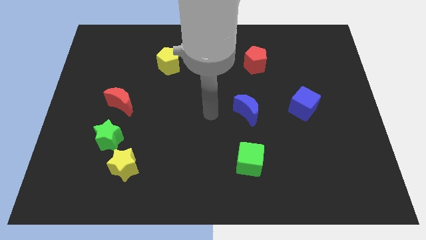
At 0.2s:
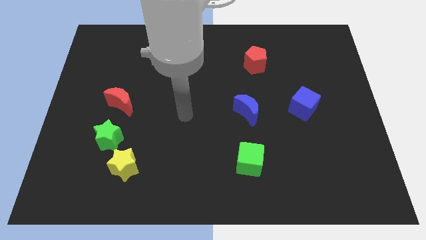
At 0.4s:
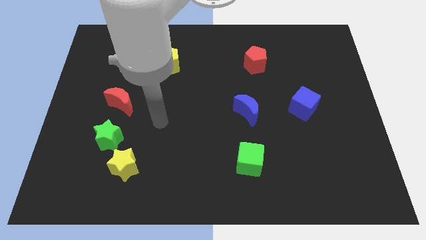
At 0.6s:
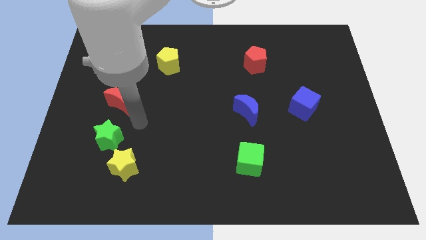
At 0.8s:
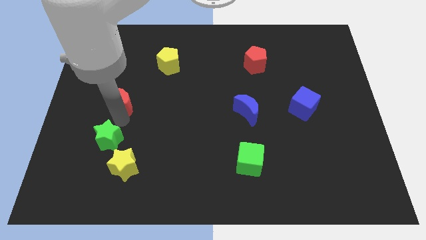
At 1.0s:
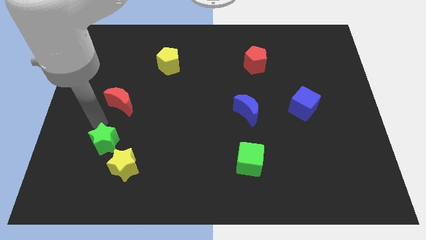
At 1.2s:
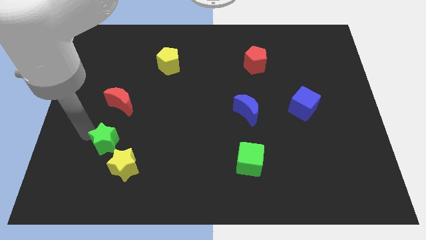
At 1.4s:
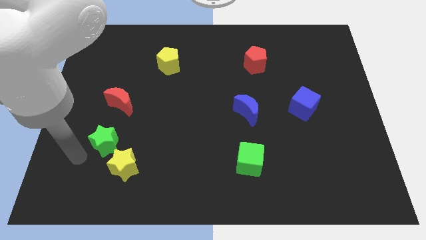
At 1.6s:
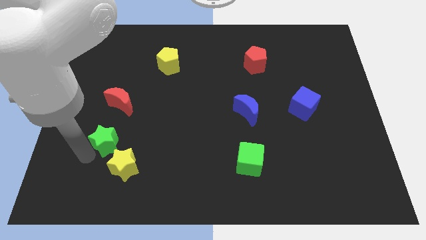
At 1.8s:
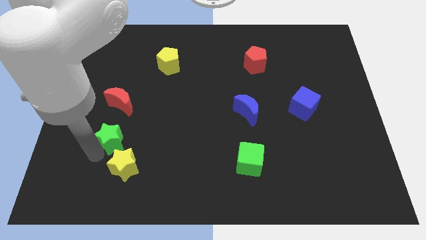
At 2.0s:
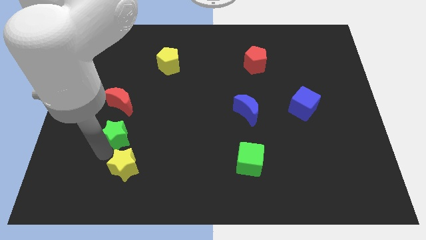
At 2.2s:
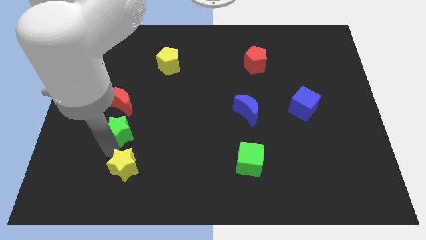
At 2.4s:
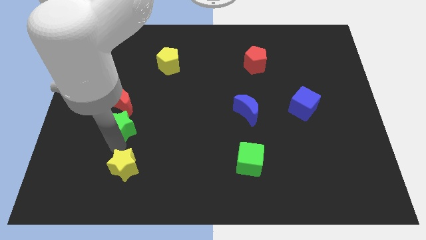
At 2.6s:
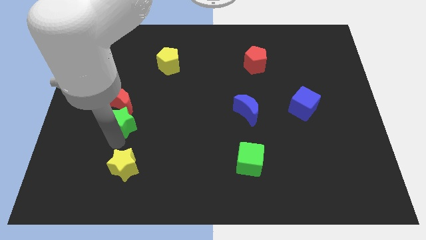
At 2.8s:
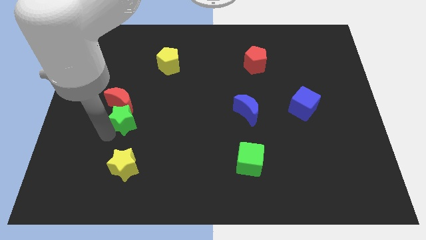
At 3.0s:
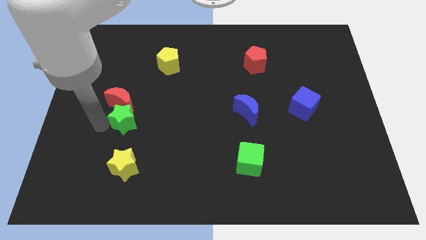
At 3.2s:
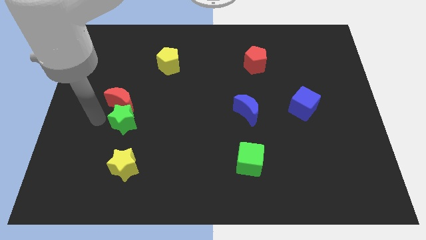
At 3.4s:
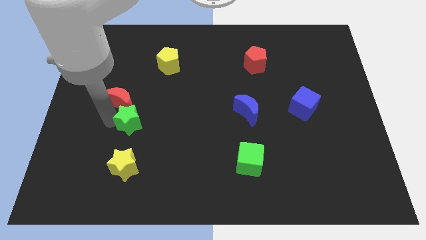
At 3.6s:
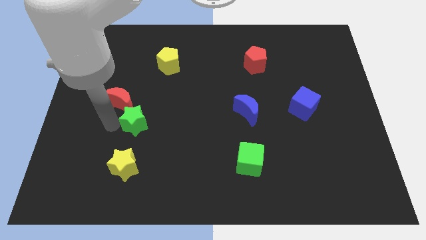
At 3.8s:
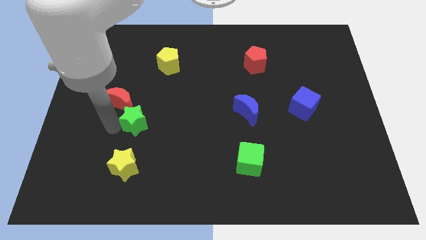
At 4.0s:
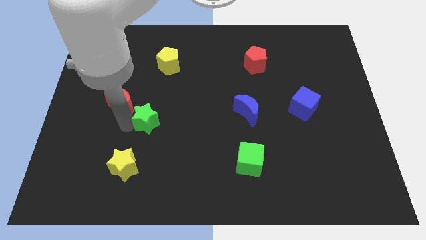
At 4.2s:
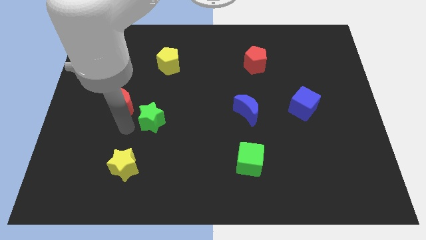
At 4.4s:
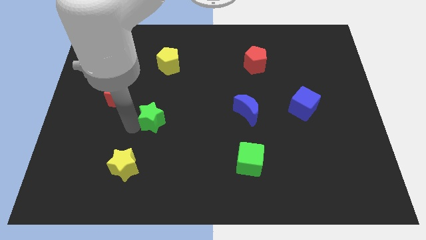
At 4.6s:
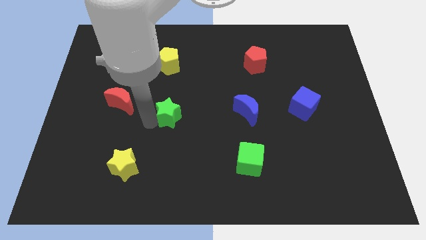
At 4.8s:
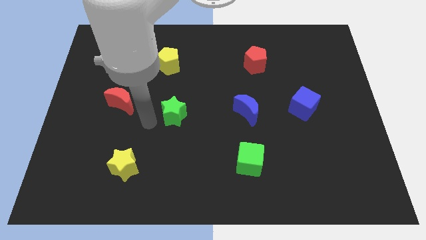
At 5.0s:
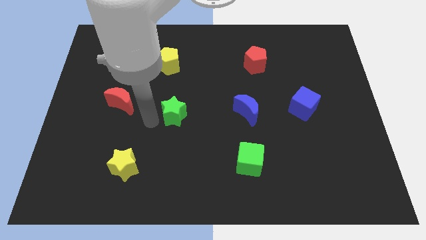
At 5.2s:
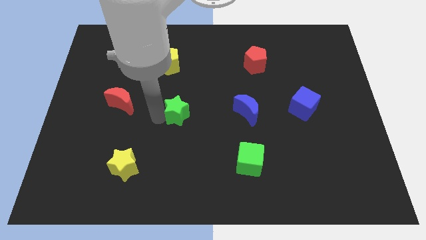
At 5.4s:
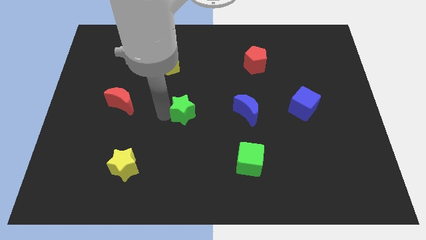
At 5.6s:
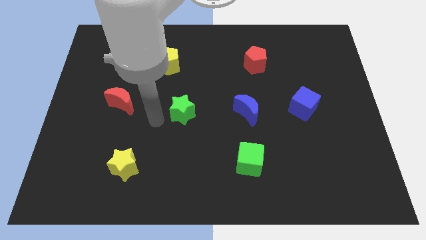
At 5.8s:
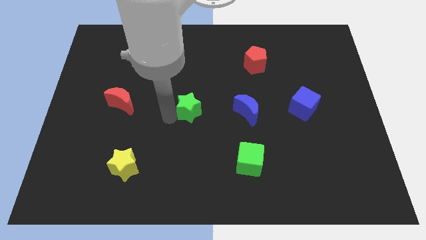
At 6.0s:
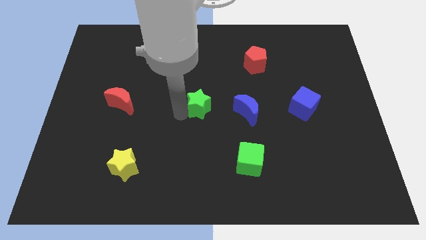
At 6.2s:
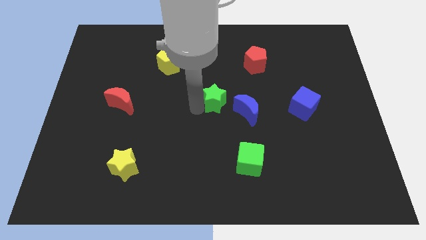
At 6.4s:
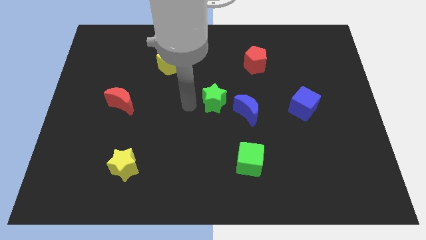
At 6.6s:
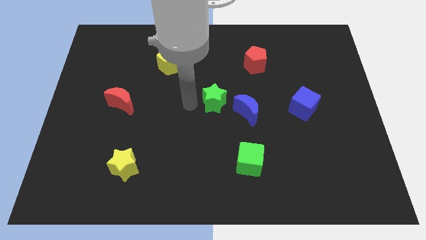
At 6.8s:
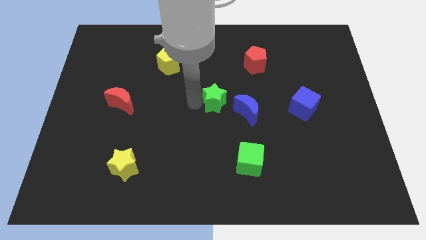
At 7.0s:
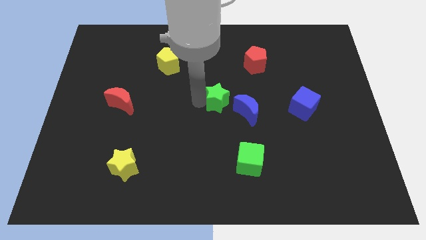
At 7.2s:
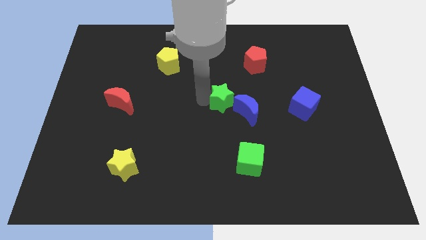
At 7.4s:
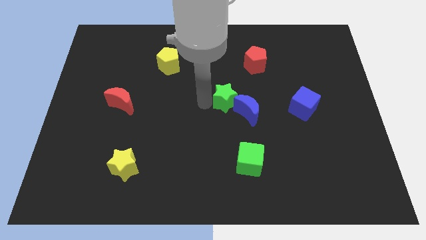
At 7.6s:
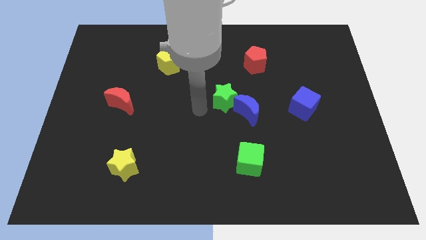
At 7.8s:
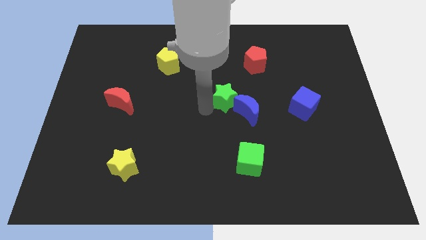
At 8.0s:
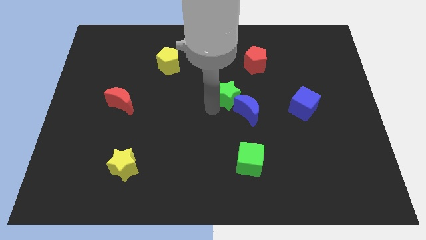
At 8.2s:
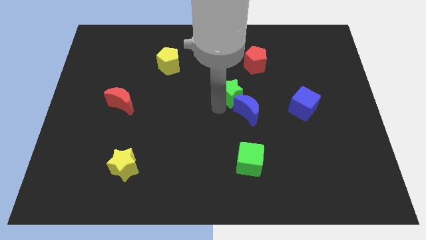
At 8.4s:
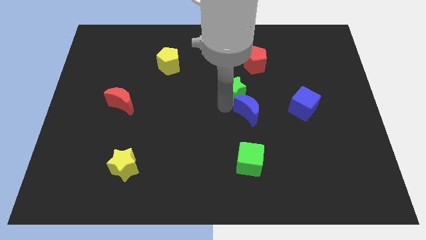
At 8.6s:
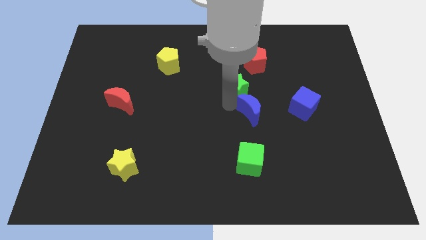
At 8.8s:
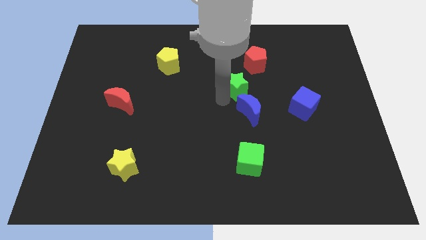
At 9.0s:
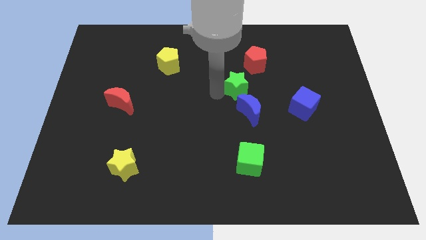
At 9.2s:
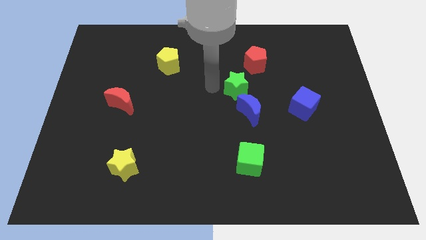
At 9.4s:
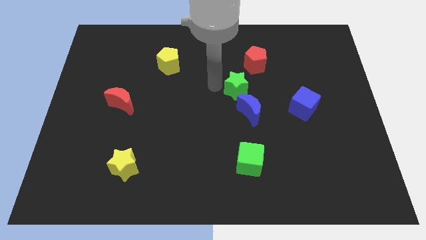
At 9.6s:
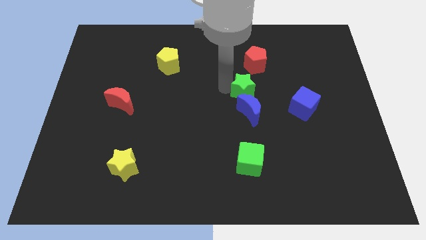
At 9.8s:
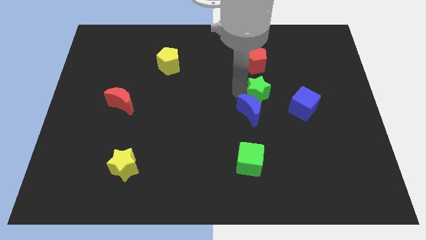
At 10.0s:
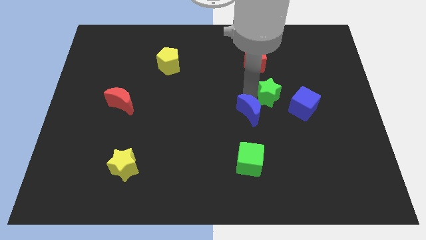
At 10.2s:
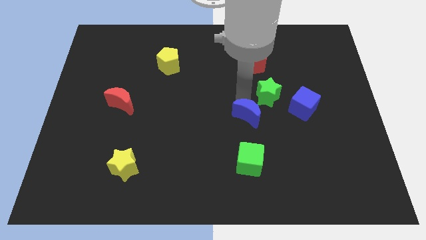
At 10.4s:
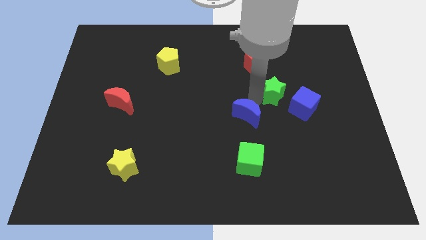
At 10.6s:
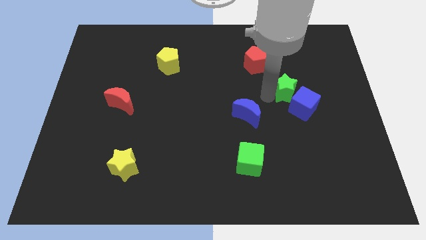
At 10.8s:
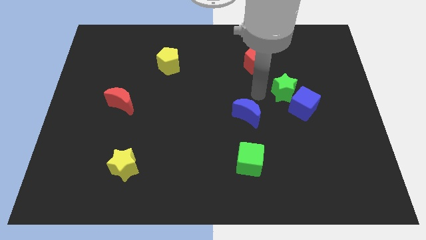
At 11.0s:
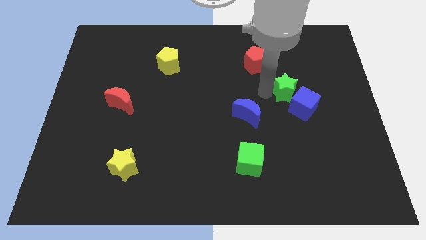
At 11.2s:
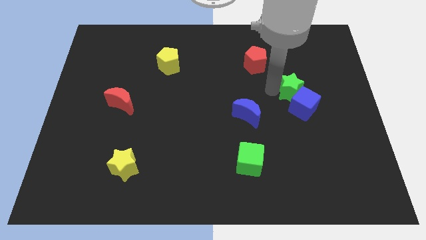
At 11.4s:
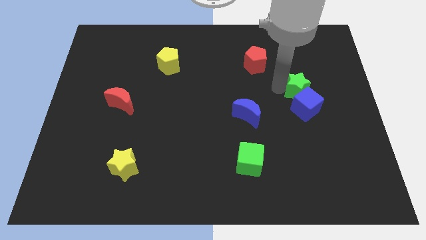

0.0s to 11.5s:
push the green star to the top right of the blue cube
